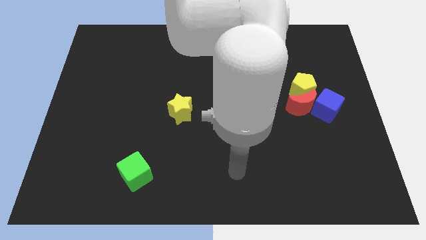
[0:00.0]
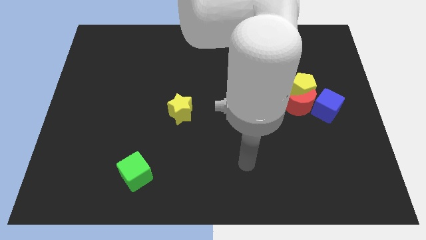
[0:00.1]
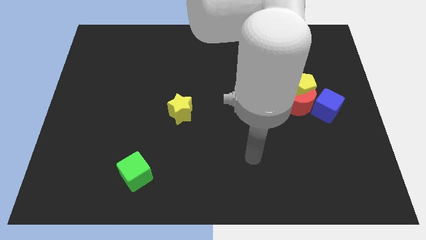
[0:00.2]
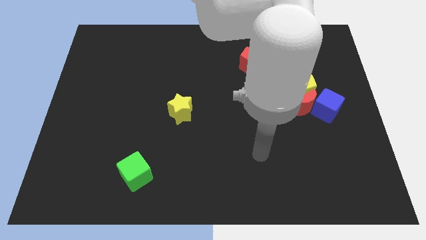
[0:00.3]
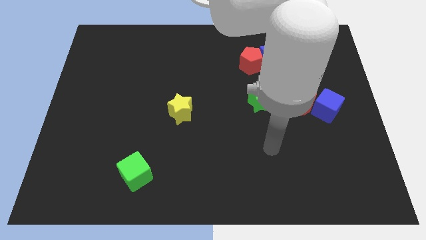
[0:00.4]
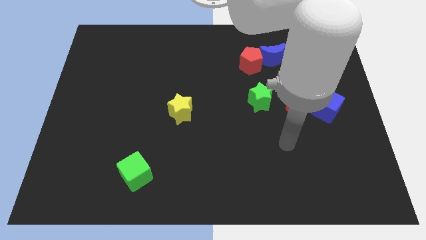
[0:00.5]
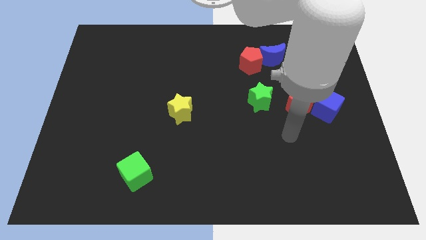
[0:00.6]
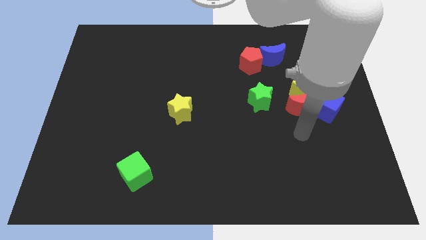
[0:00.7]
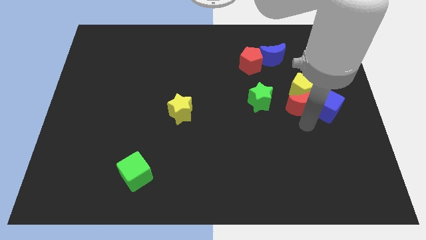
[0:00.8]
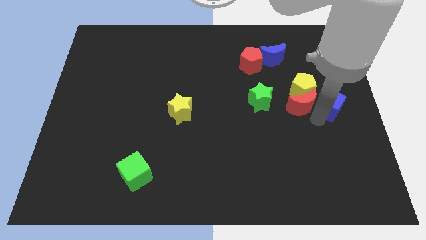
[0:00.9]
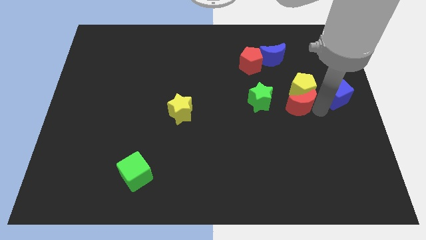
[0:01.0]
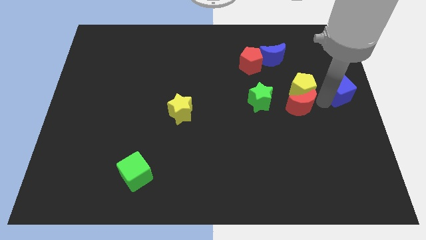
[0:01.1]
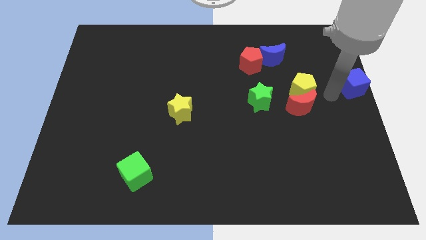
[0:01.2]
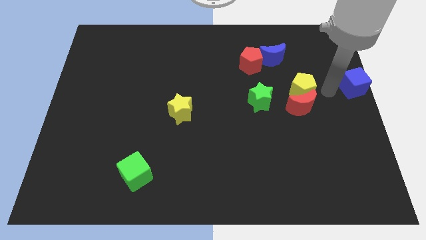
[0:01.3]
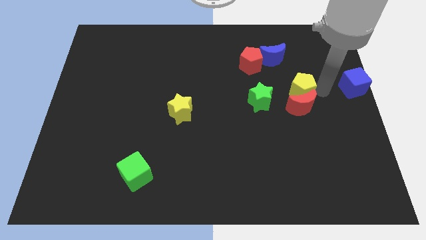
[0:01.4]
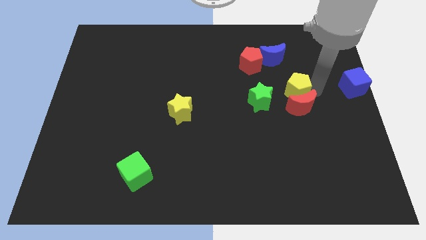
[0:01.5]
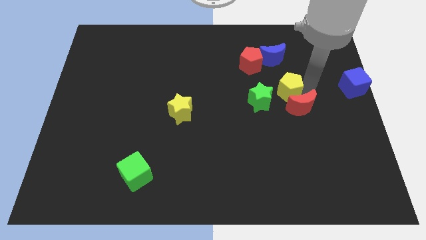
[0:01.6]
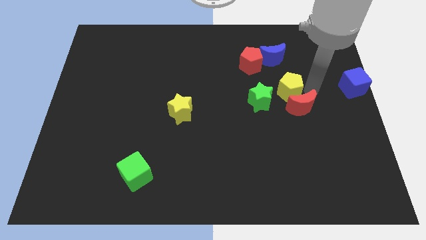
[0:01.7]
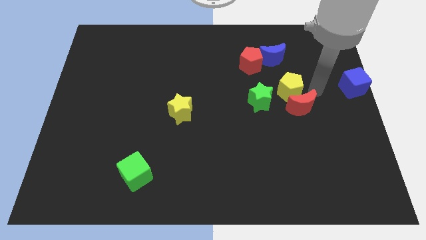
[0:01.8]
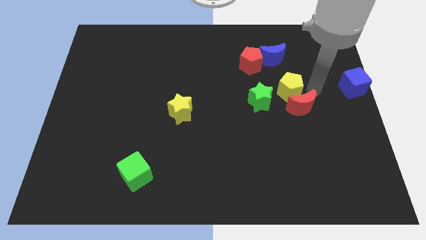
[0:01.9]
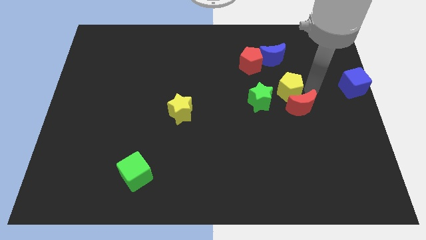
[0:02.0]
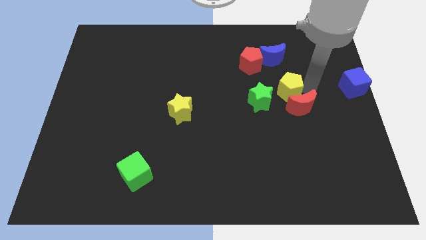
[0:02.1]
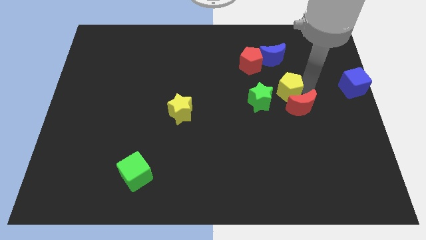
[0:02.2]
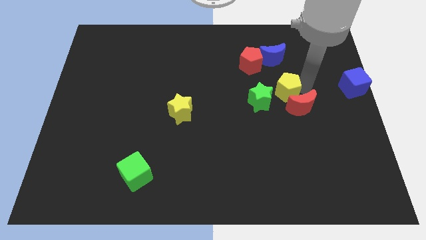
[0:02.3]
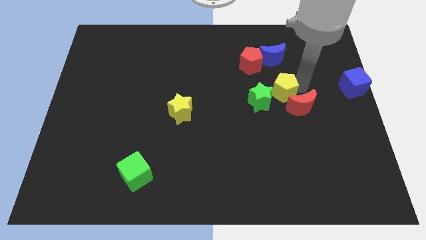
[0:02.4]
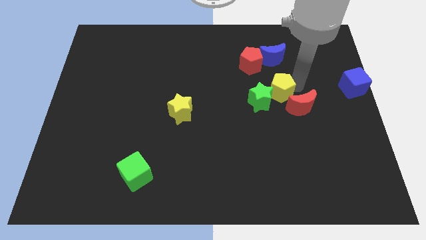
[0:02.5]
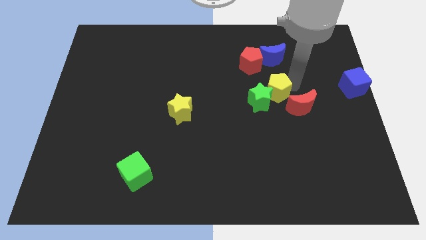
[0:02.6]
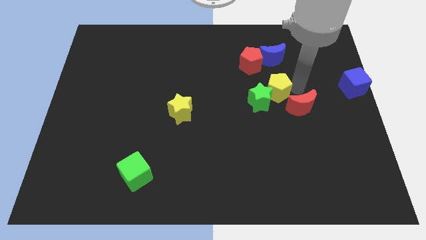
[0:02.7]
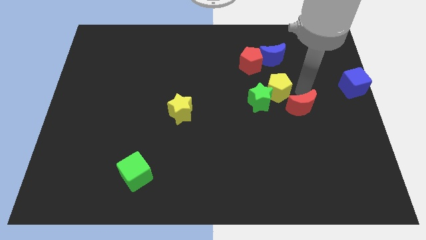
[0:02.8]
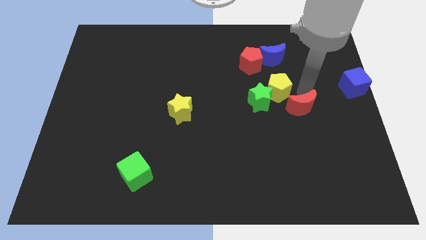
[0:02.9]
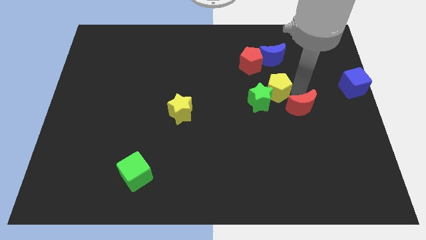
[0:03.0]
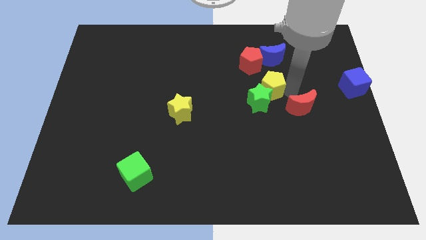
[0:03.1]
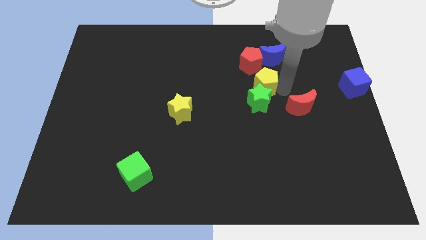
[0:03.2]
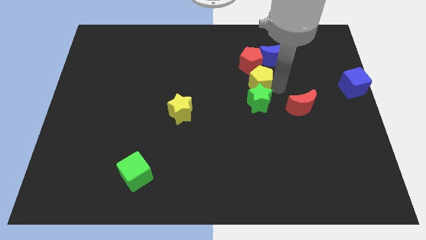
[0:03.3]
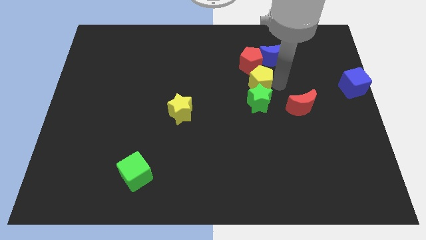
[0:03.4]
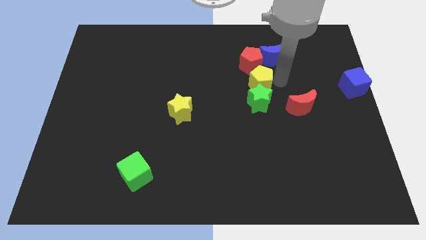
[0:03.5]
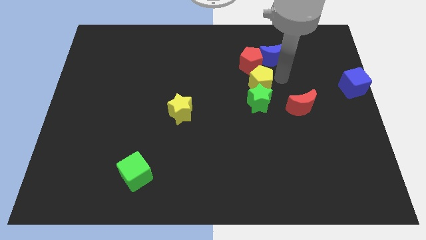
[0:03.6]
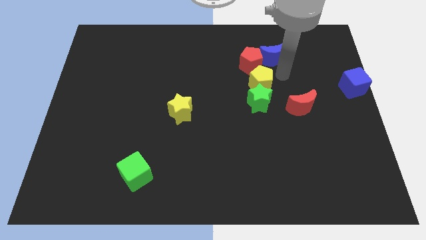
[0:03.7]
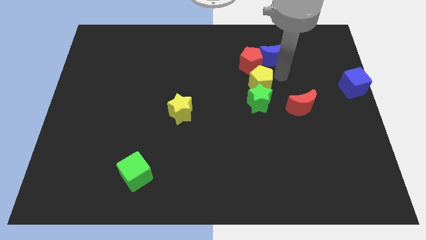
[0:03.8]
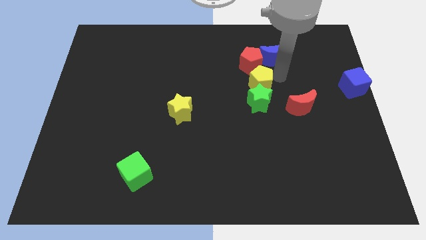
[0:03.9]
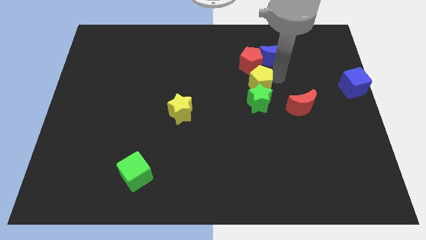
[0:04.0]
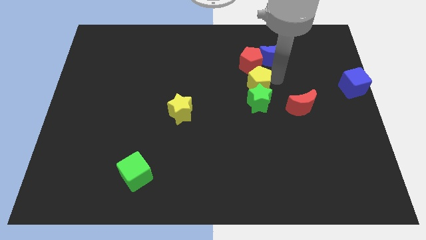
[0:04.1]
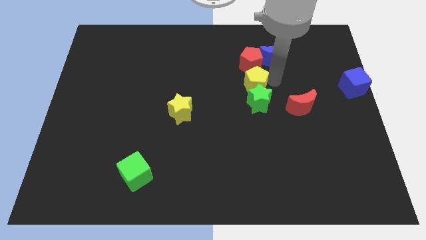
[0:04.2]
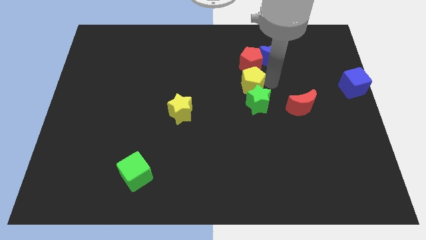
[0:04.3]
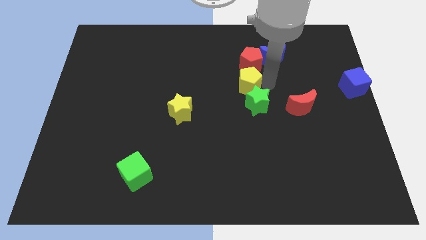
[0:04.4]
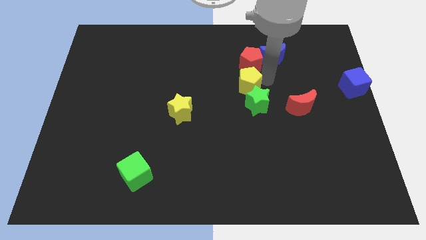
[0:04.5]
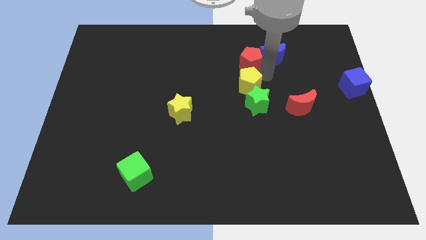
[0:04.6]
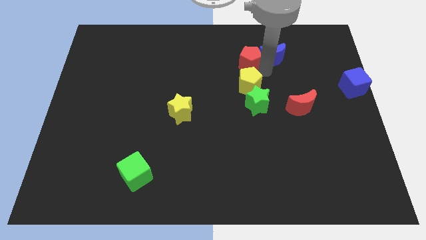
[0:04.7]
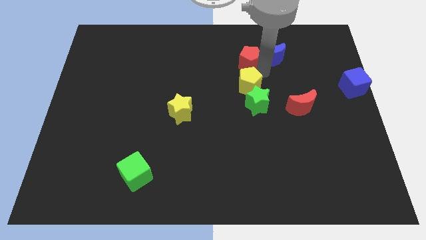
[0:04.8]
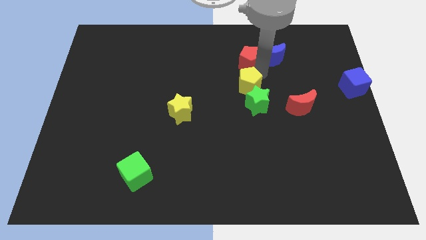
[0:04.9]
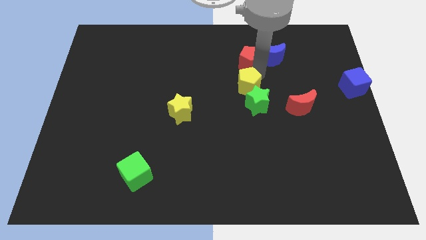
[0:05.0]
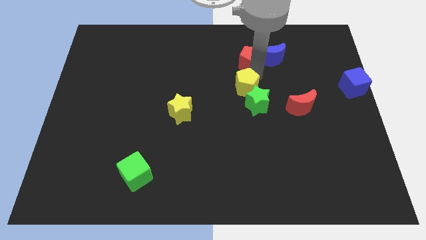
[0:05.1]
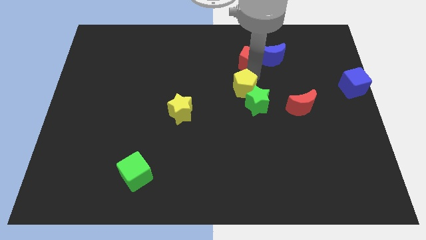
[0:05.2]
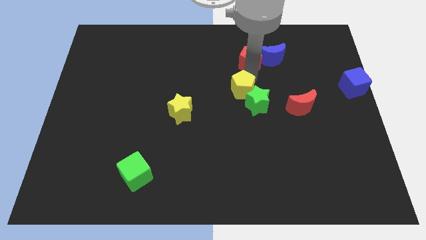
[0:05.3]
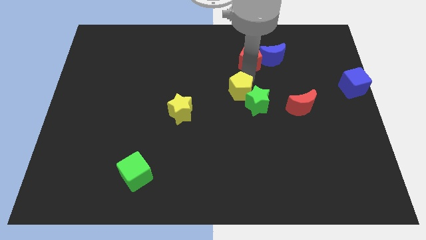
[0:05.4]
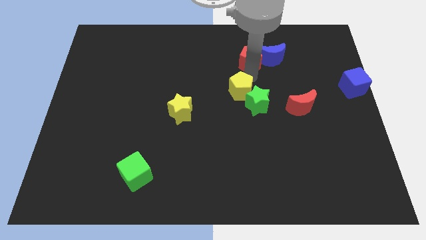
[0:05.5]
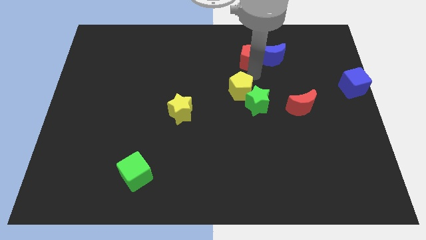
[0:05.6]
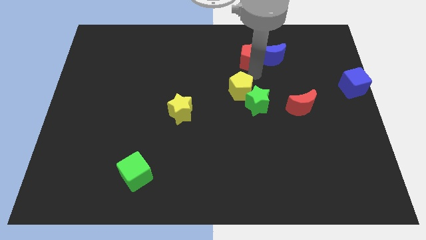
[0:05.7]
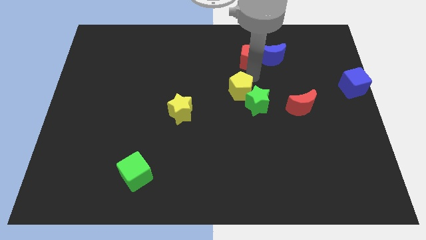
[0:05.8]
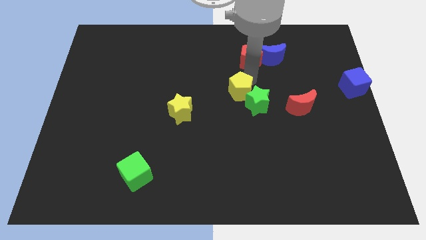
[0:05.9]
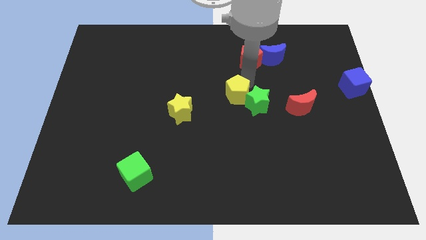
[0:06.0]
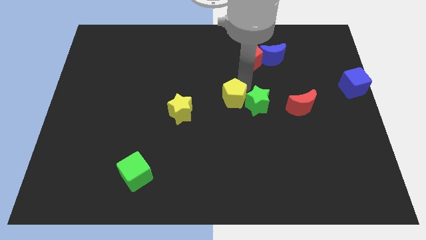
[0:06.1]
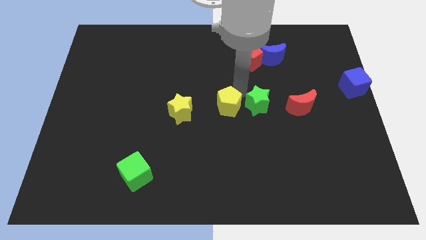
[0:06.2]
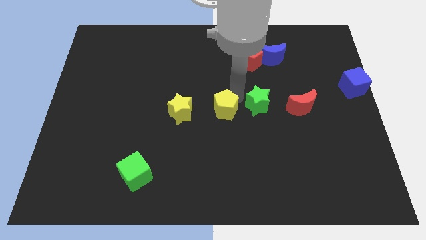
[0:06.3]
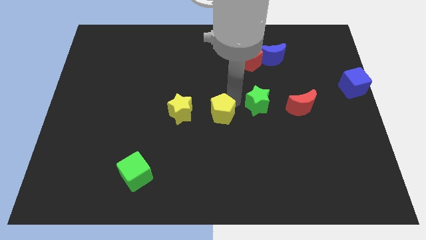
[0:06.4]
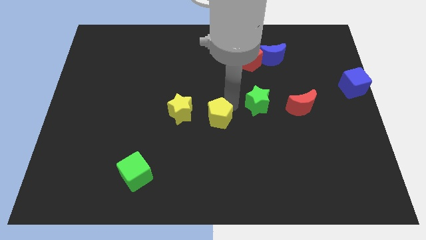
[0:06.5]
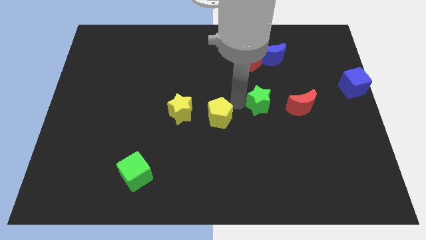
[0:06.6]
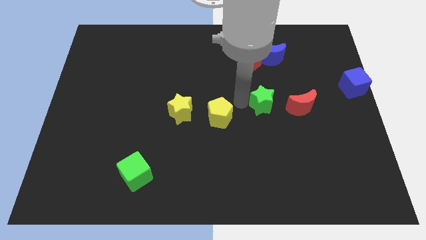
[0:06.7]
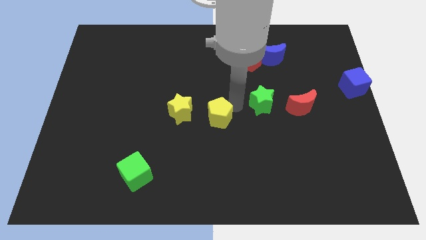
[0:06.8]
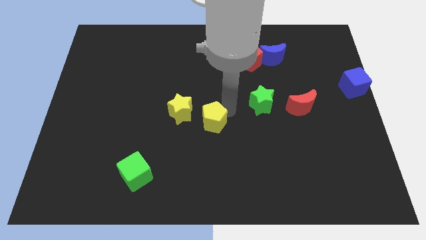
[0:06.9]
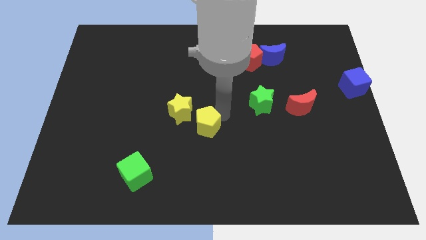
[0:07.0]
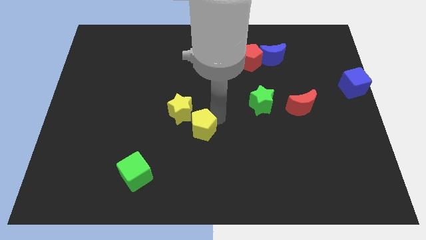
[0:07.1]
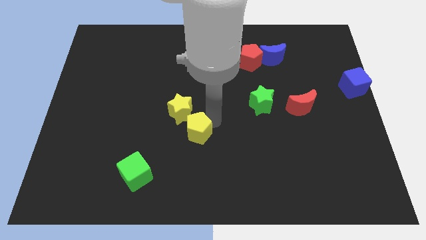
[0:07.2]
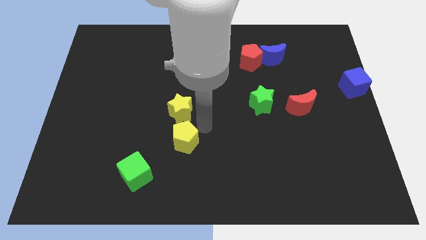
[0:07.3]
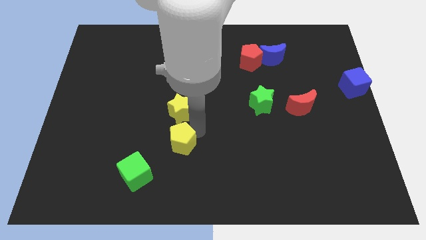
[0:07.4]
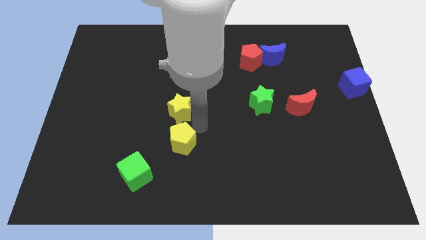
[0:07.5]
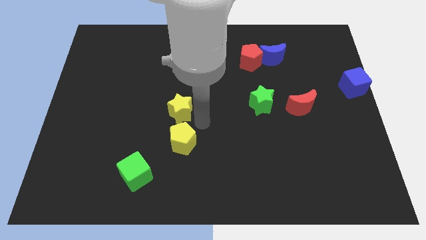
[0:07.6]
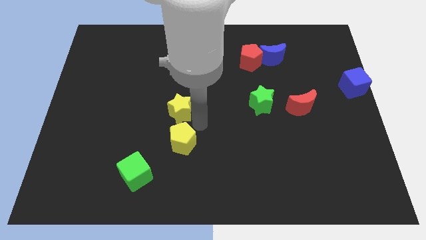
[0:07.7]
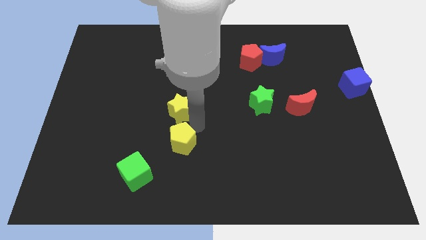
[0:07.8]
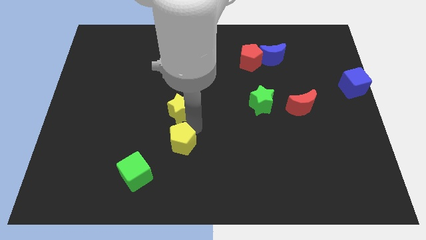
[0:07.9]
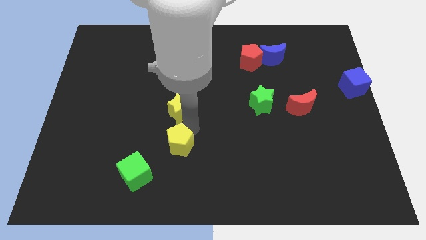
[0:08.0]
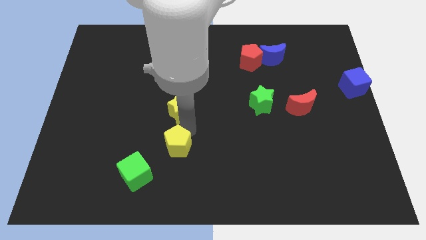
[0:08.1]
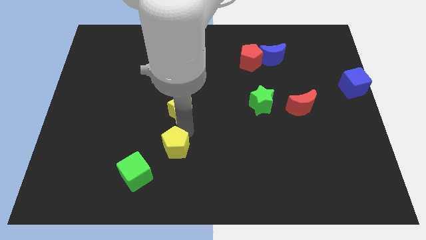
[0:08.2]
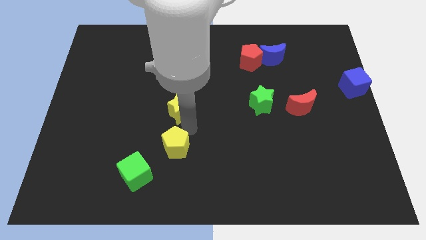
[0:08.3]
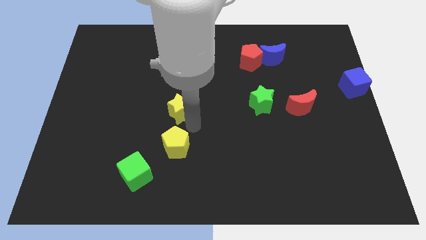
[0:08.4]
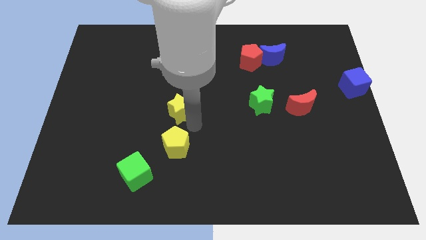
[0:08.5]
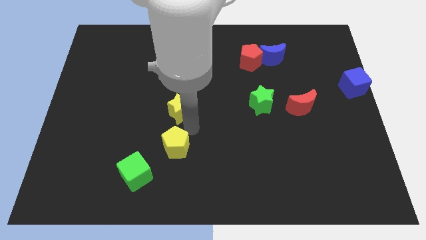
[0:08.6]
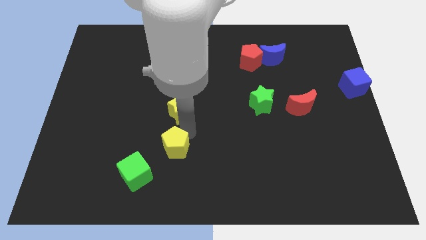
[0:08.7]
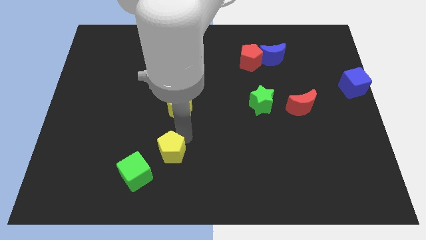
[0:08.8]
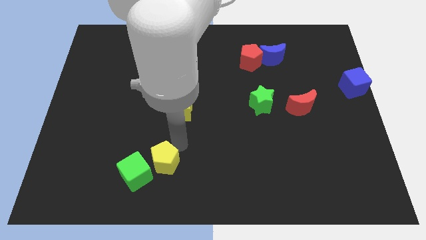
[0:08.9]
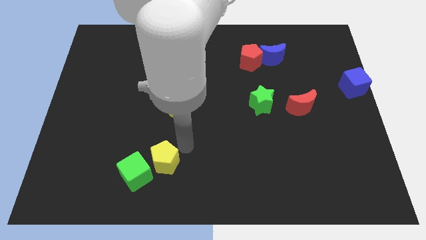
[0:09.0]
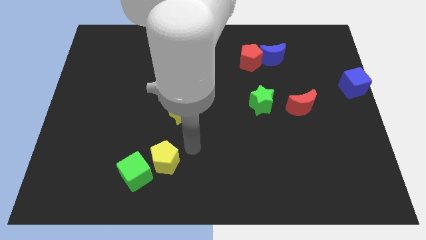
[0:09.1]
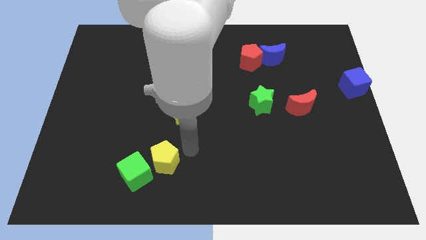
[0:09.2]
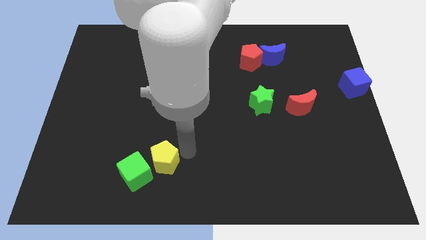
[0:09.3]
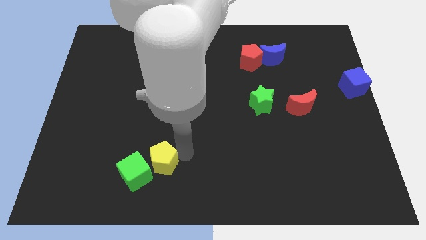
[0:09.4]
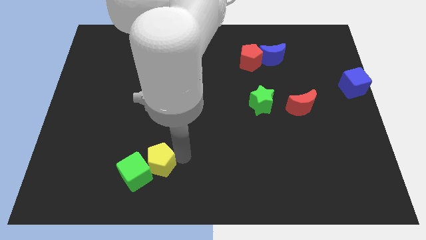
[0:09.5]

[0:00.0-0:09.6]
slide the yellow pentagon close to the green cube
